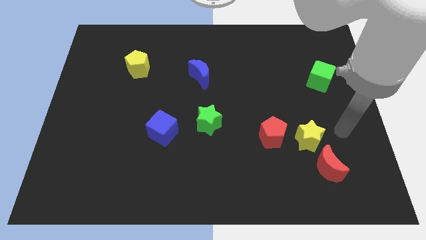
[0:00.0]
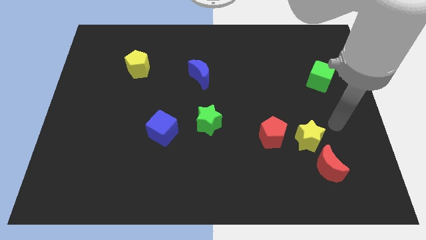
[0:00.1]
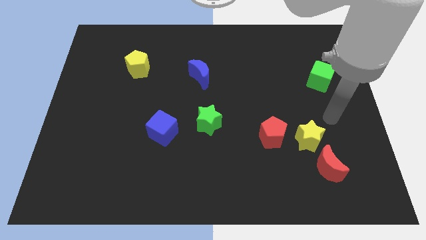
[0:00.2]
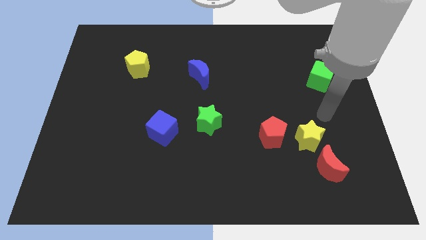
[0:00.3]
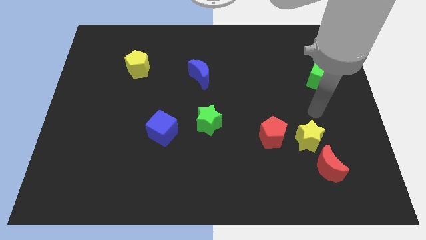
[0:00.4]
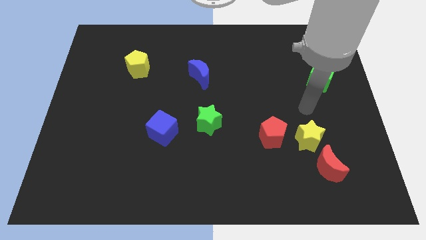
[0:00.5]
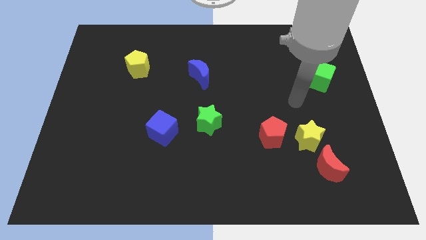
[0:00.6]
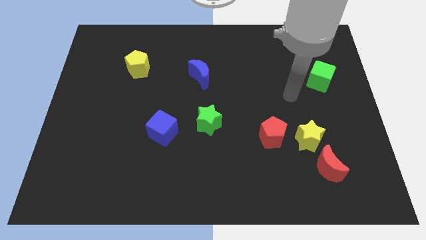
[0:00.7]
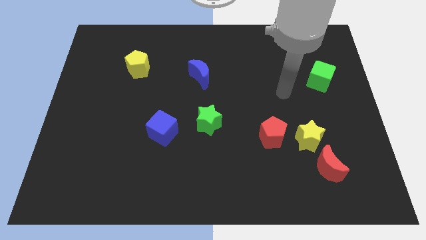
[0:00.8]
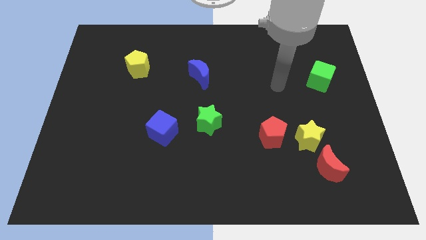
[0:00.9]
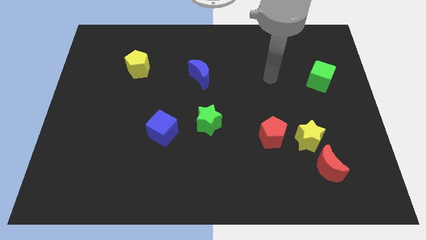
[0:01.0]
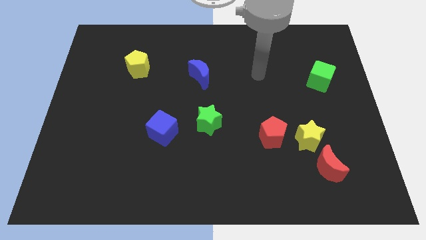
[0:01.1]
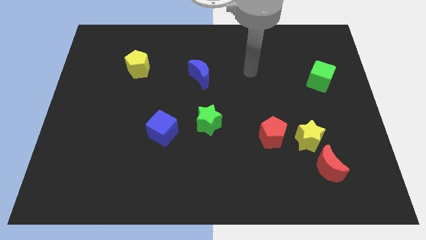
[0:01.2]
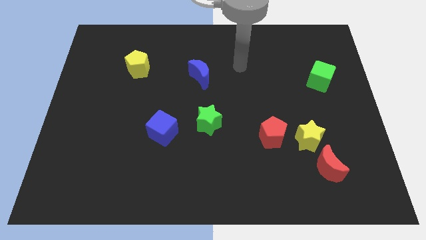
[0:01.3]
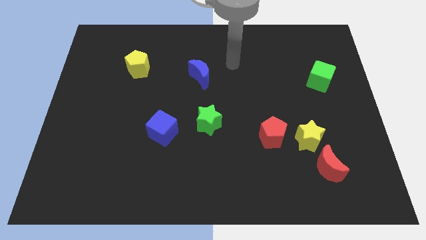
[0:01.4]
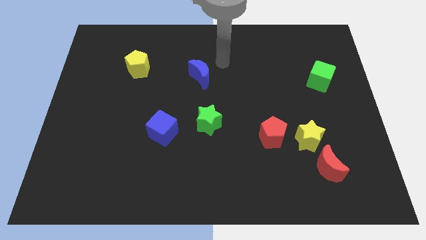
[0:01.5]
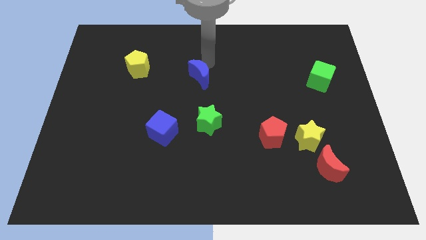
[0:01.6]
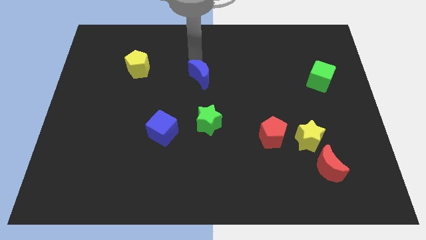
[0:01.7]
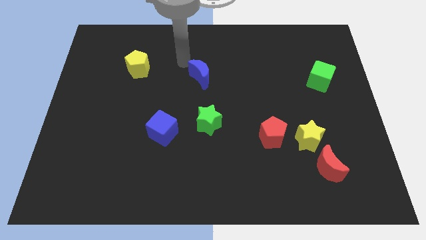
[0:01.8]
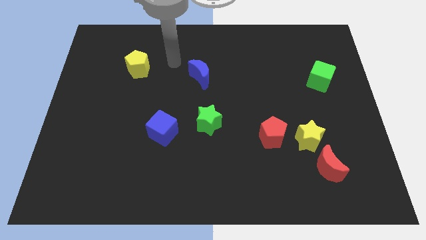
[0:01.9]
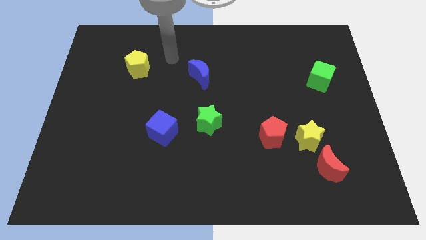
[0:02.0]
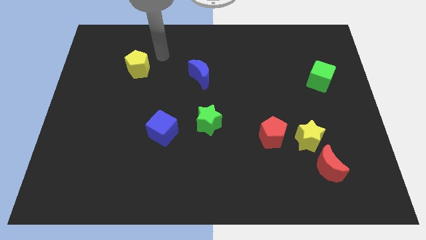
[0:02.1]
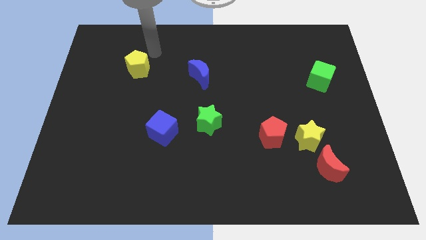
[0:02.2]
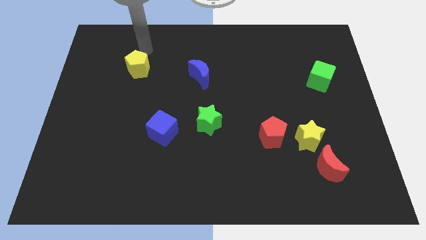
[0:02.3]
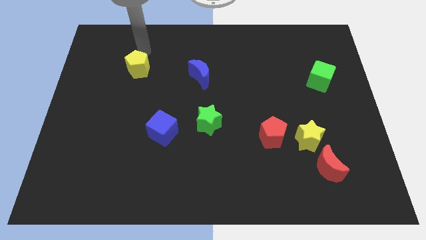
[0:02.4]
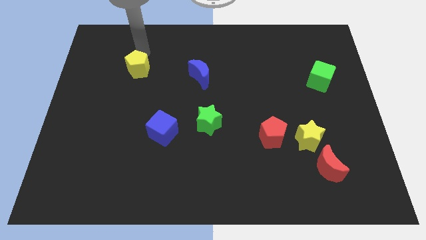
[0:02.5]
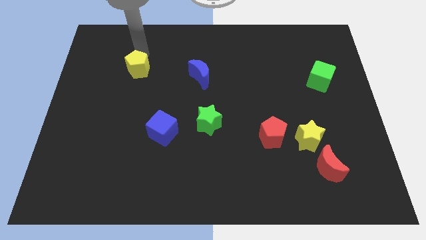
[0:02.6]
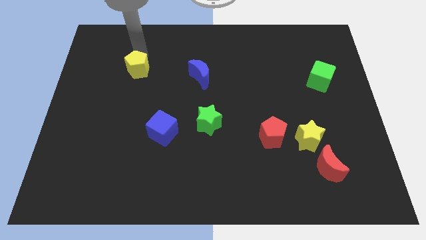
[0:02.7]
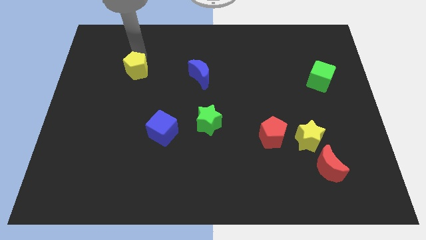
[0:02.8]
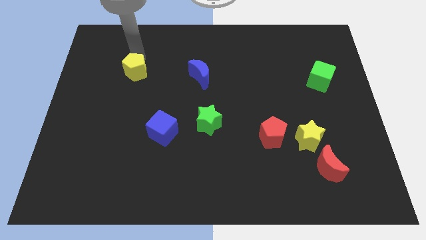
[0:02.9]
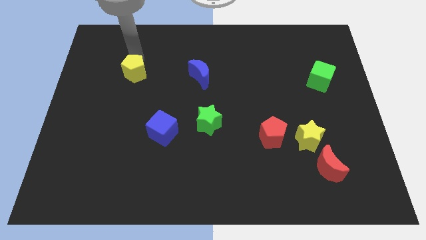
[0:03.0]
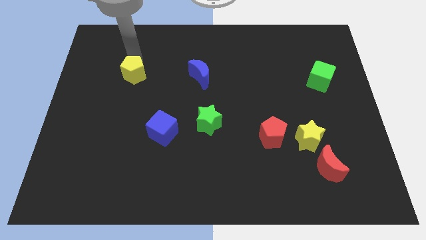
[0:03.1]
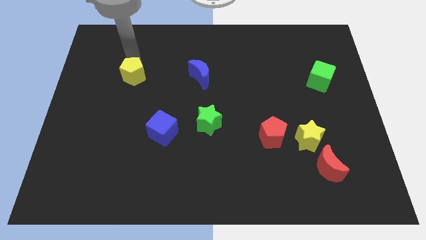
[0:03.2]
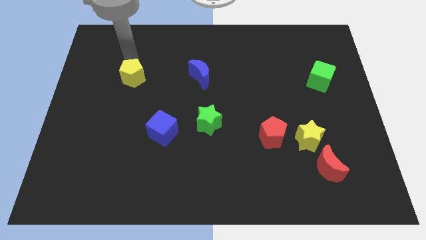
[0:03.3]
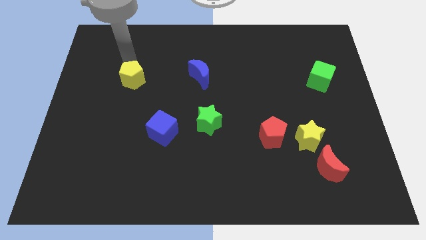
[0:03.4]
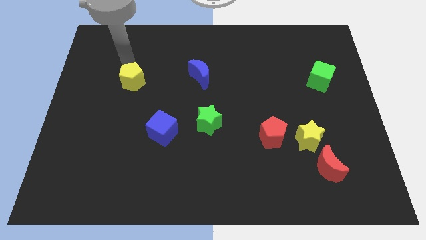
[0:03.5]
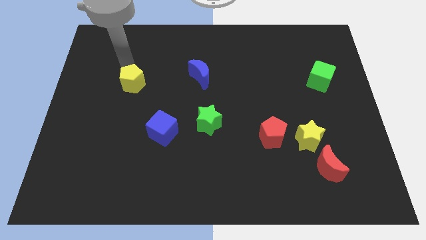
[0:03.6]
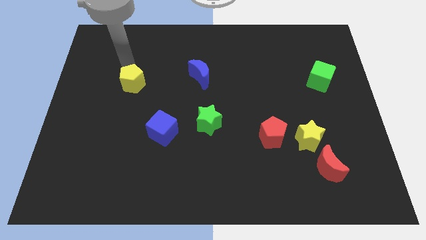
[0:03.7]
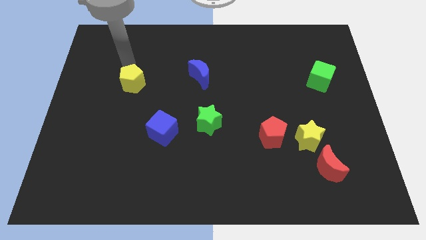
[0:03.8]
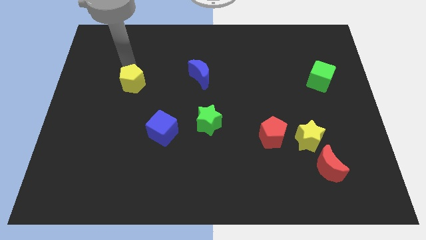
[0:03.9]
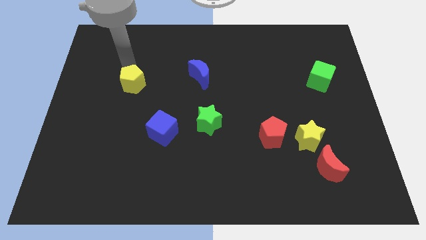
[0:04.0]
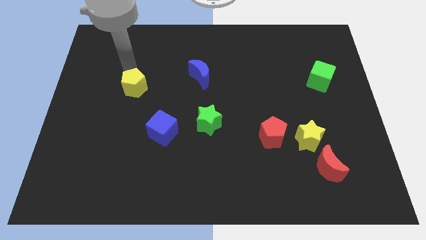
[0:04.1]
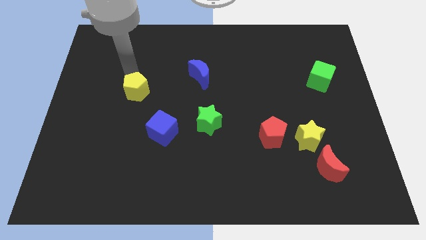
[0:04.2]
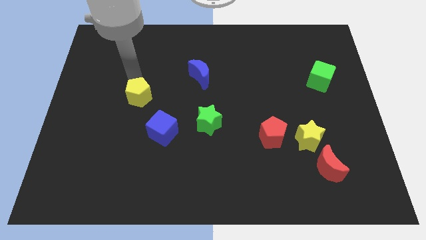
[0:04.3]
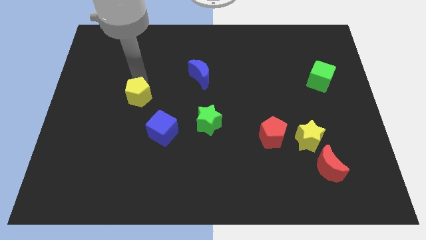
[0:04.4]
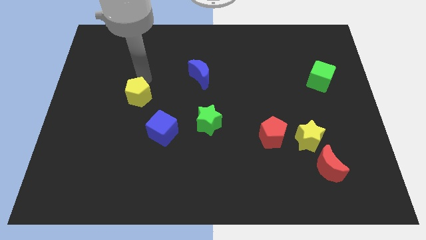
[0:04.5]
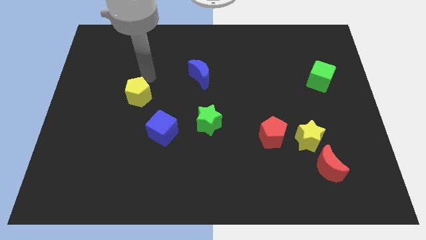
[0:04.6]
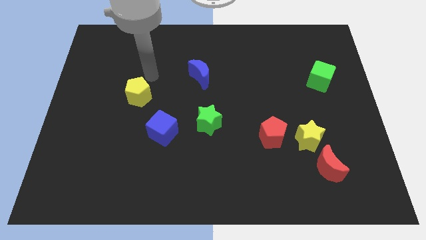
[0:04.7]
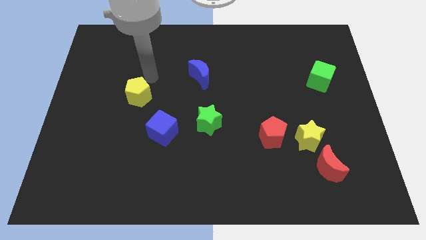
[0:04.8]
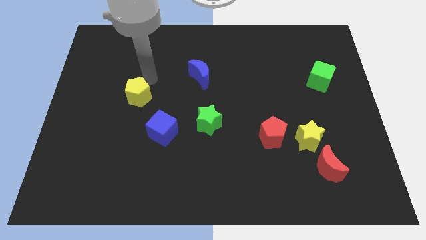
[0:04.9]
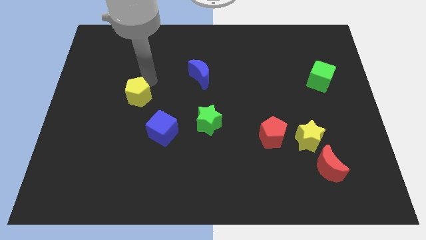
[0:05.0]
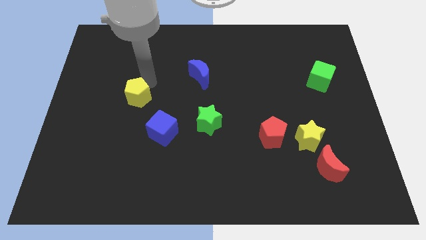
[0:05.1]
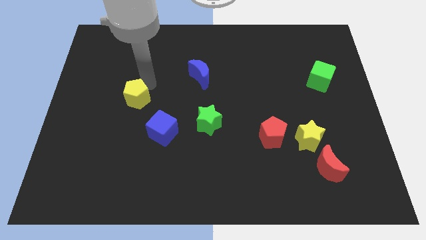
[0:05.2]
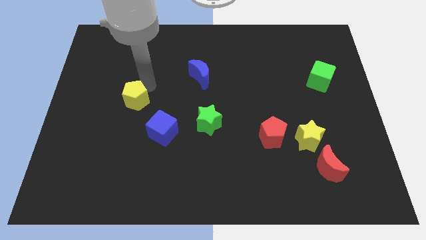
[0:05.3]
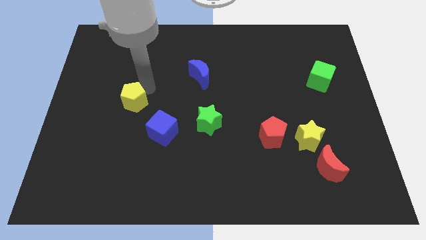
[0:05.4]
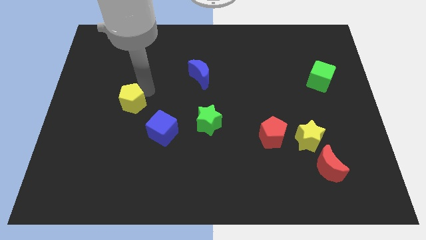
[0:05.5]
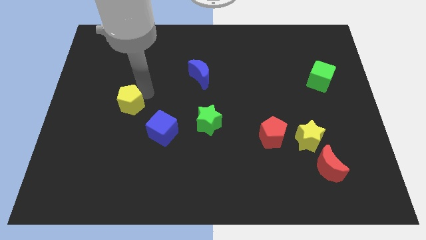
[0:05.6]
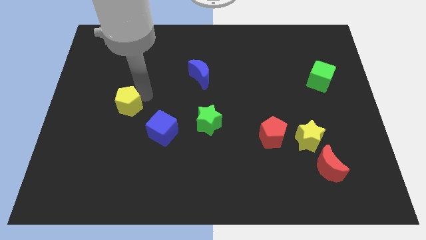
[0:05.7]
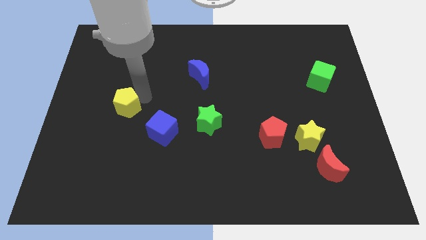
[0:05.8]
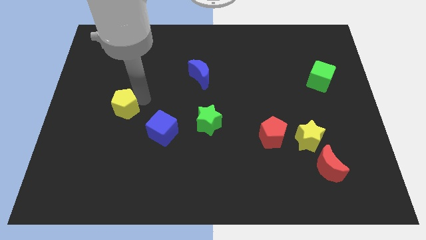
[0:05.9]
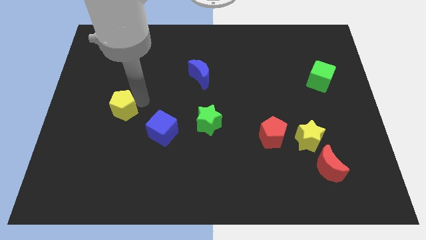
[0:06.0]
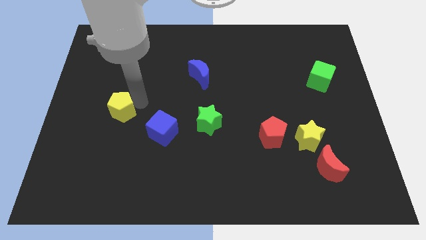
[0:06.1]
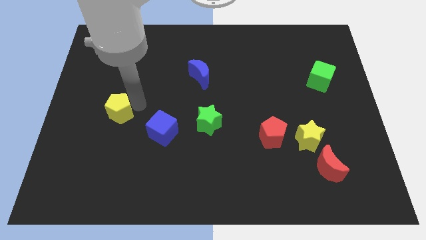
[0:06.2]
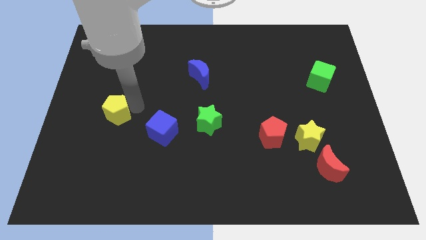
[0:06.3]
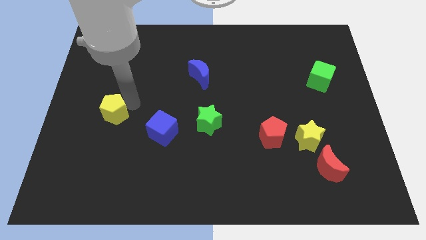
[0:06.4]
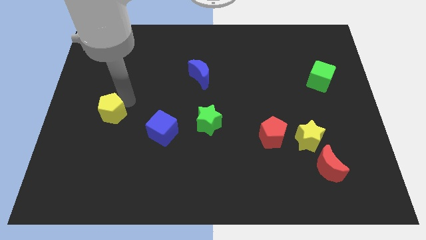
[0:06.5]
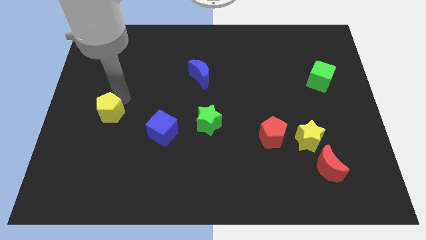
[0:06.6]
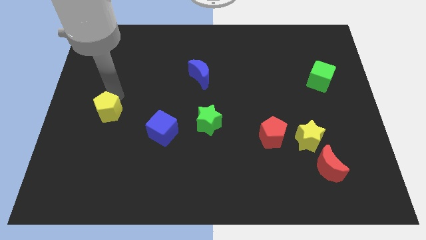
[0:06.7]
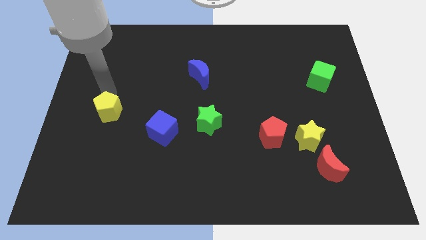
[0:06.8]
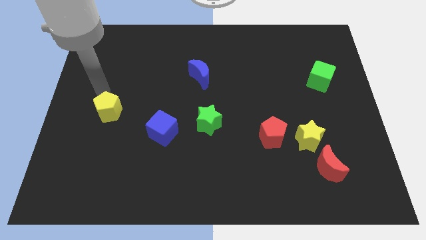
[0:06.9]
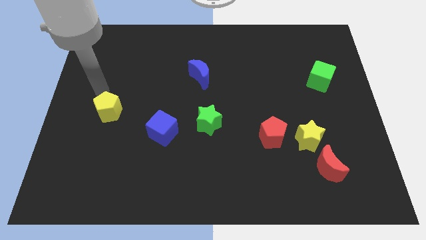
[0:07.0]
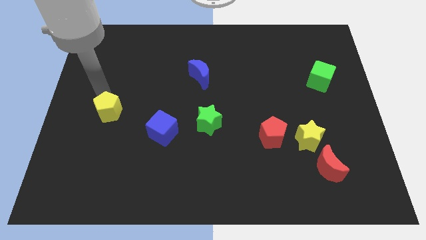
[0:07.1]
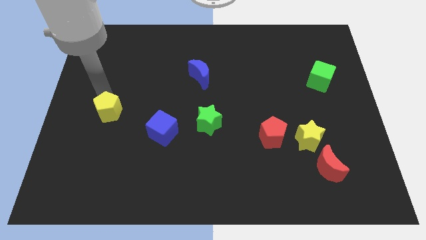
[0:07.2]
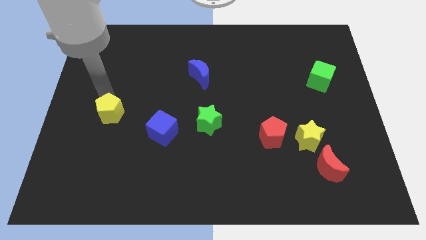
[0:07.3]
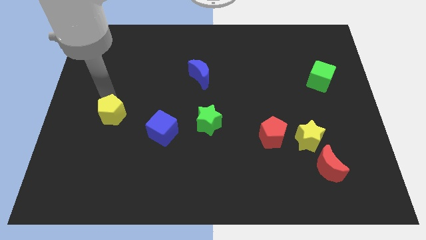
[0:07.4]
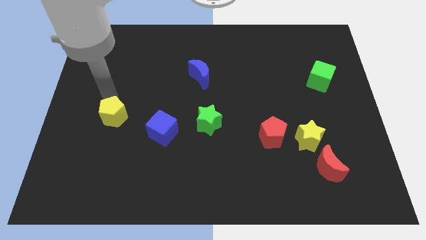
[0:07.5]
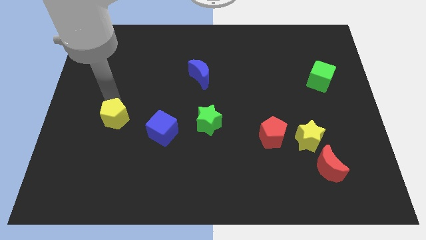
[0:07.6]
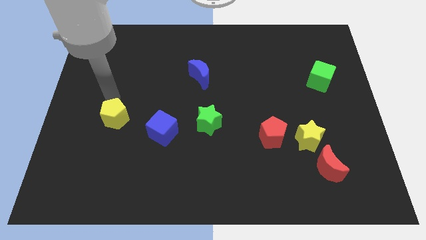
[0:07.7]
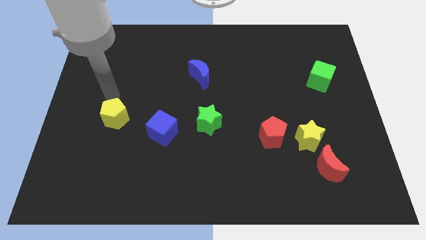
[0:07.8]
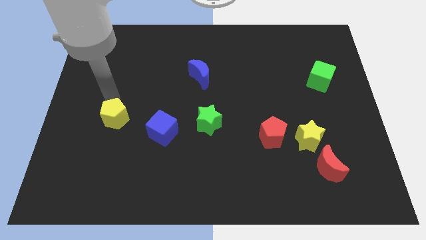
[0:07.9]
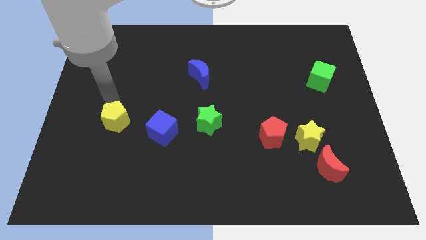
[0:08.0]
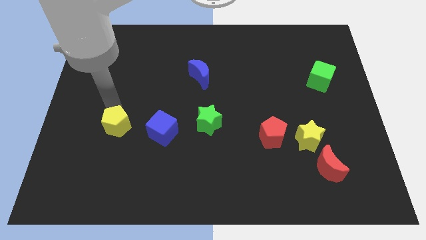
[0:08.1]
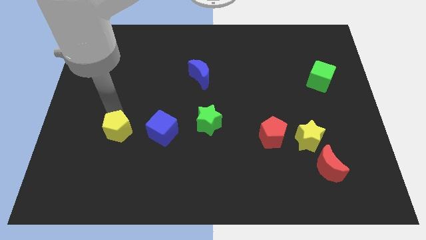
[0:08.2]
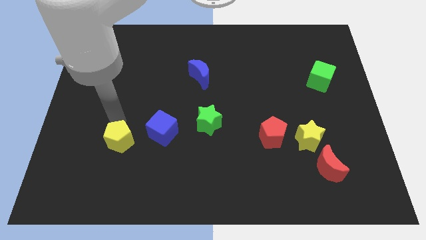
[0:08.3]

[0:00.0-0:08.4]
move the yellow pentagon downwards
